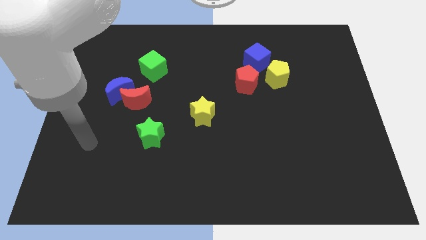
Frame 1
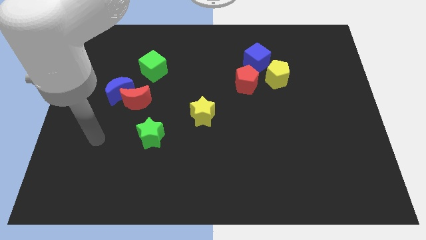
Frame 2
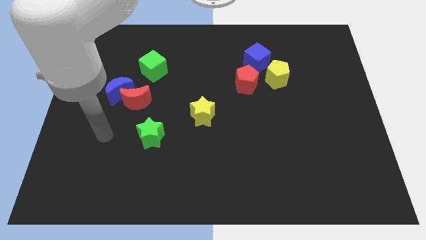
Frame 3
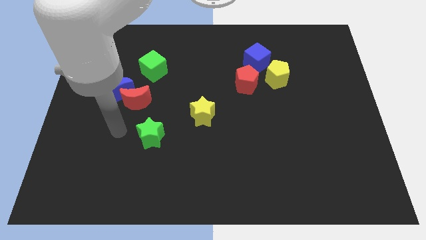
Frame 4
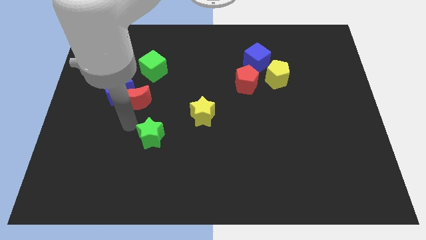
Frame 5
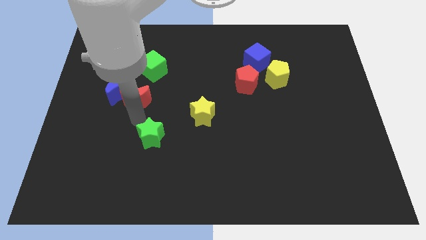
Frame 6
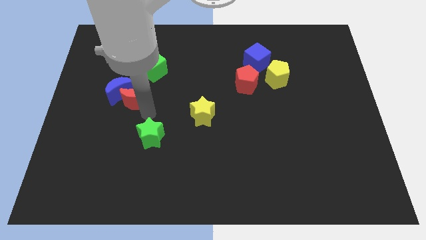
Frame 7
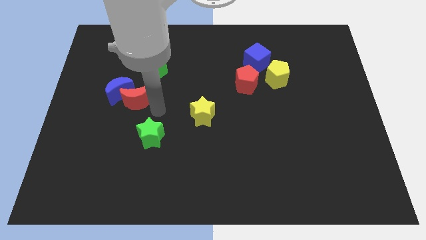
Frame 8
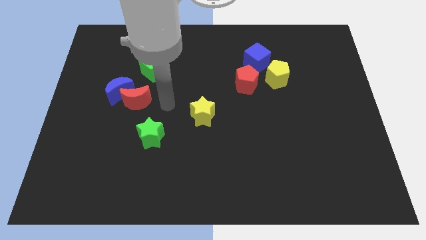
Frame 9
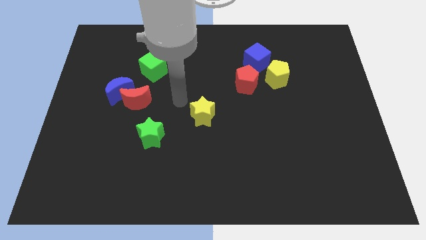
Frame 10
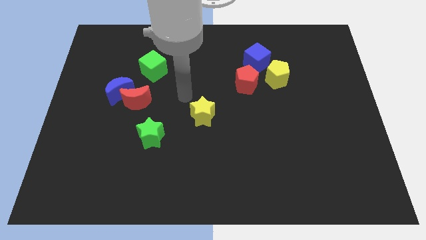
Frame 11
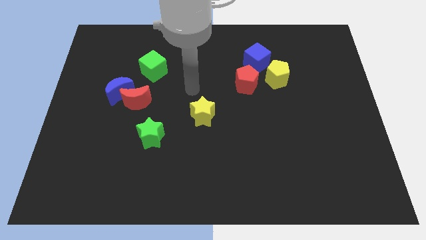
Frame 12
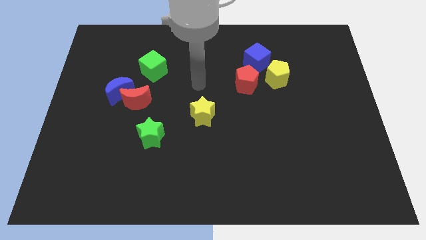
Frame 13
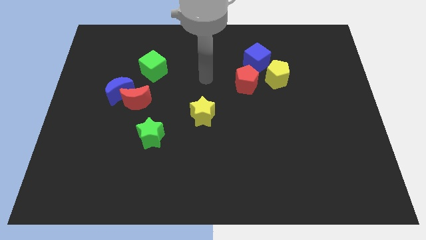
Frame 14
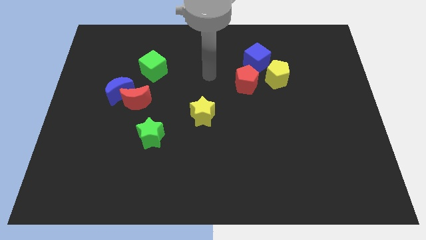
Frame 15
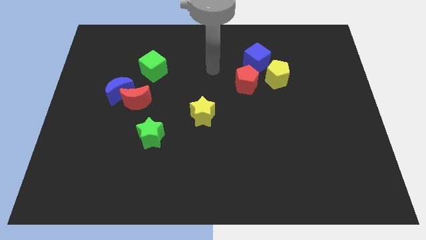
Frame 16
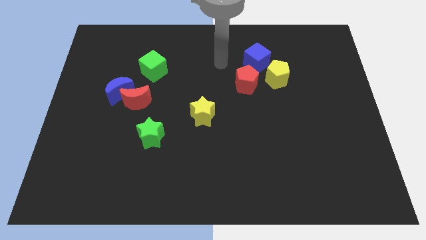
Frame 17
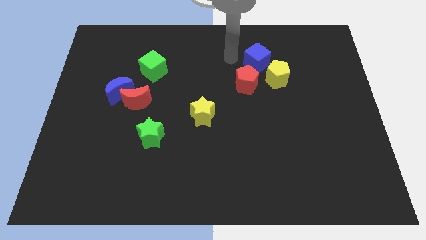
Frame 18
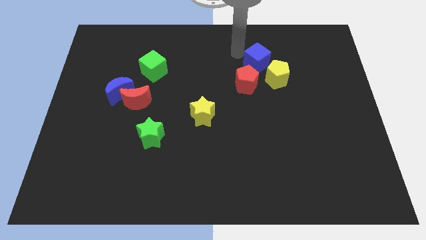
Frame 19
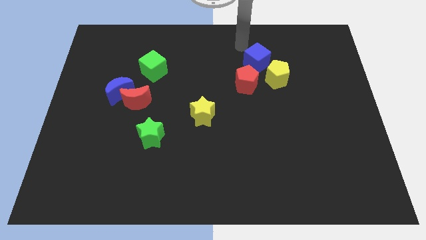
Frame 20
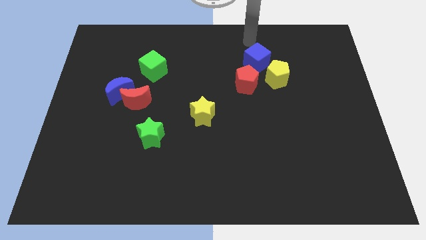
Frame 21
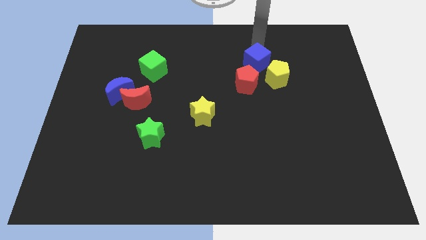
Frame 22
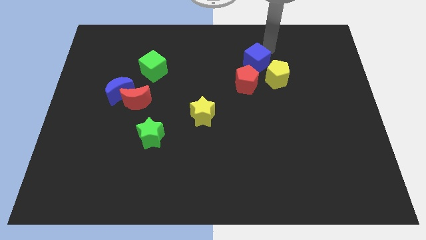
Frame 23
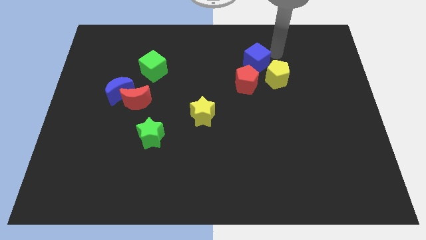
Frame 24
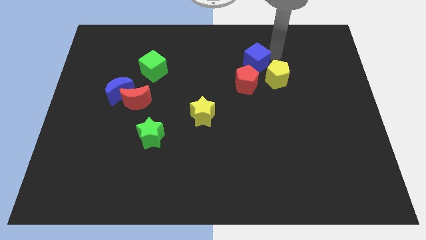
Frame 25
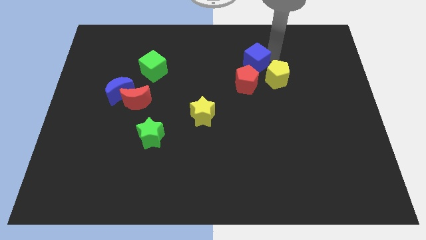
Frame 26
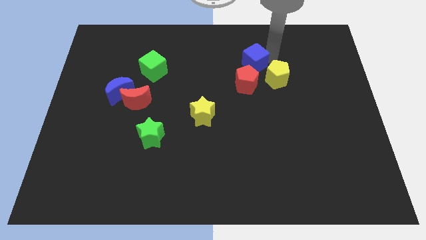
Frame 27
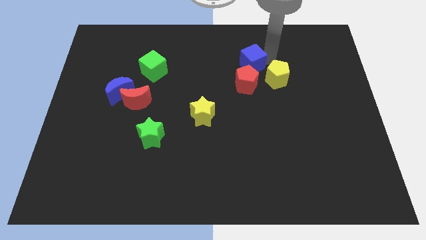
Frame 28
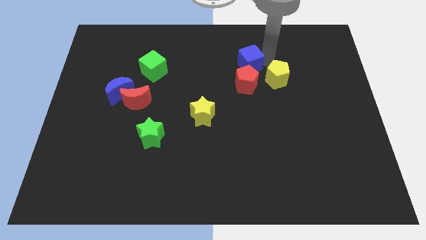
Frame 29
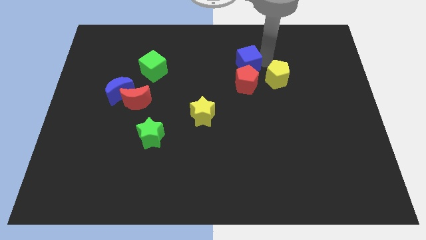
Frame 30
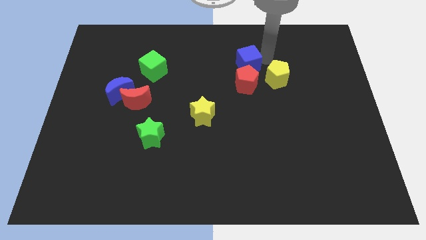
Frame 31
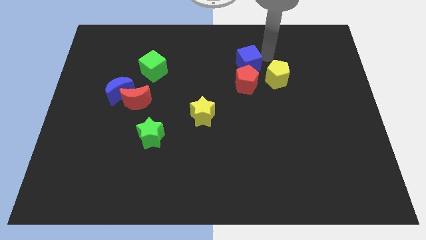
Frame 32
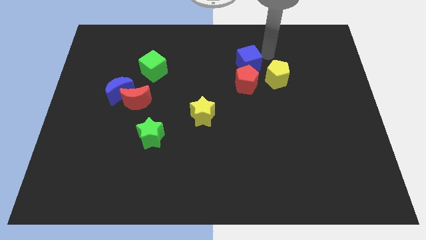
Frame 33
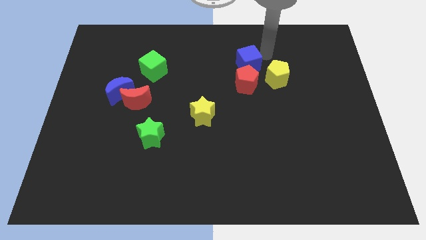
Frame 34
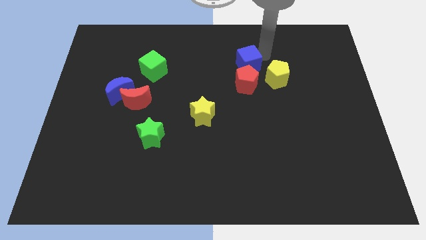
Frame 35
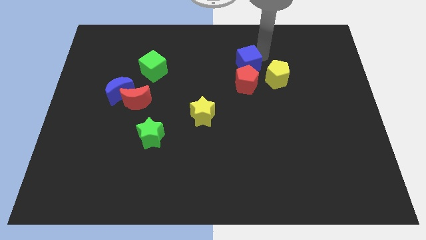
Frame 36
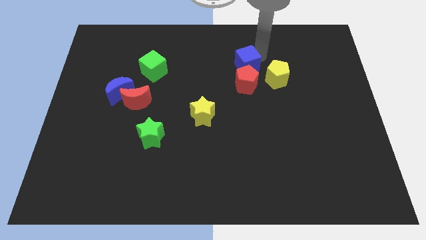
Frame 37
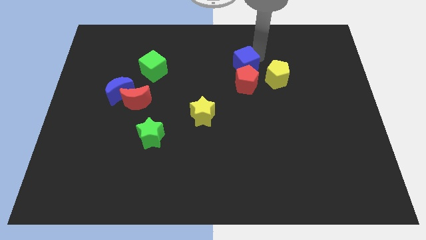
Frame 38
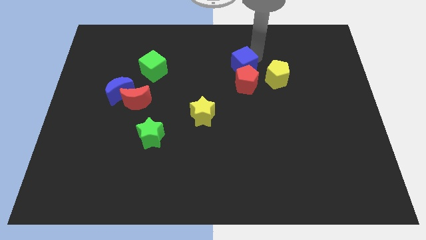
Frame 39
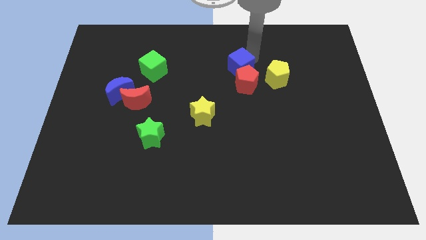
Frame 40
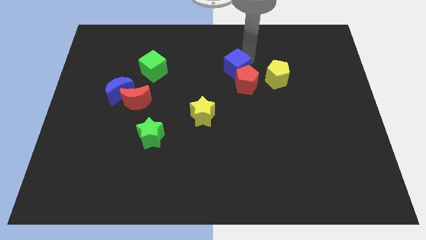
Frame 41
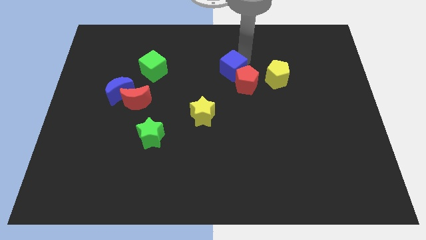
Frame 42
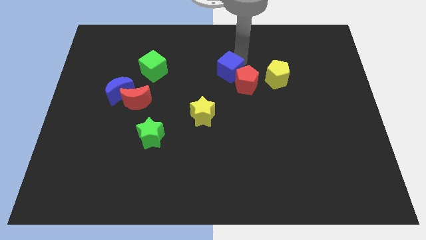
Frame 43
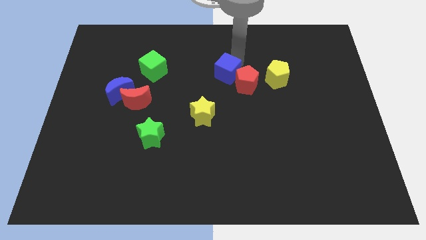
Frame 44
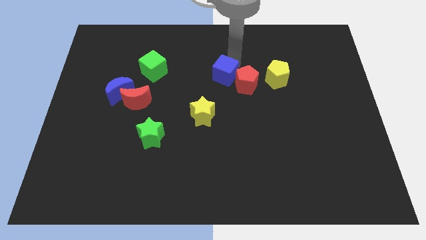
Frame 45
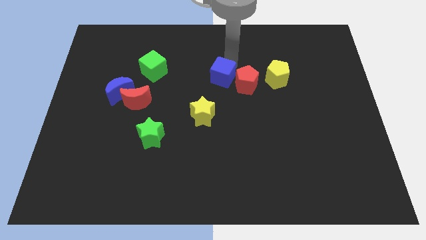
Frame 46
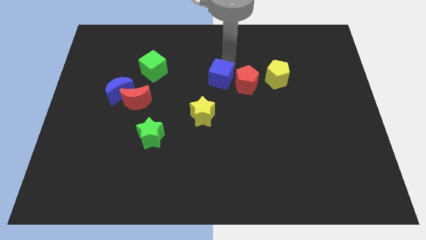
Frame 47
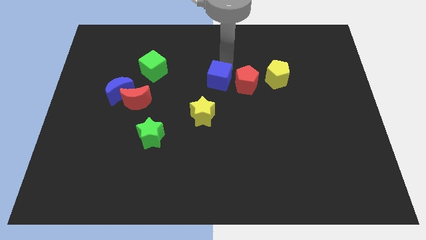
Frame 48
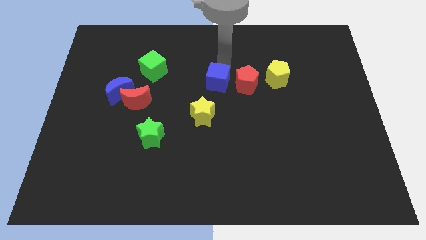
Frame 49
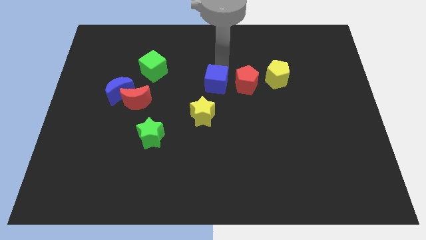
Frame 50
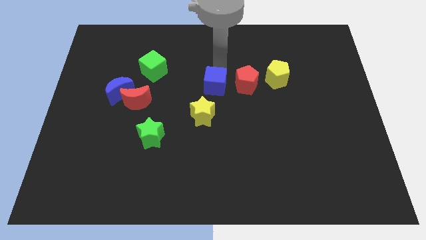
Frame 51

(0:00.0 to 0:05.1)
slide the blue cube to the top right of the yellow star

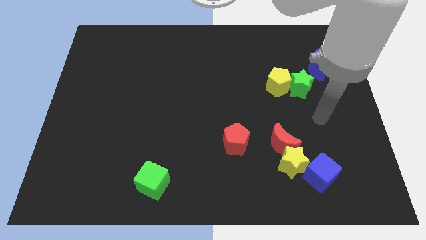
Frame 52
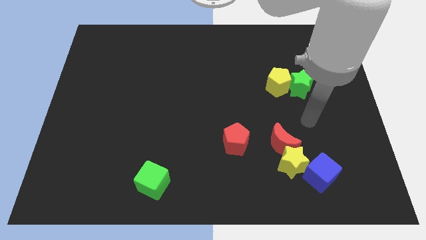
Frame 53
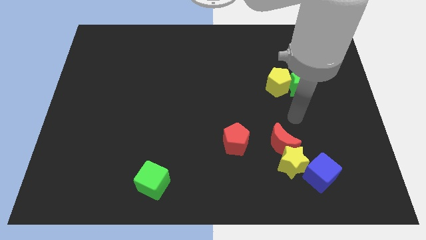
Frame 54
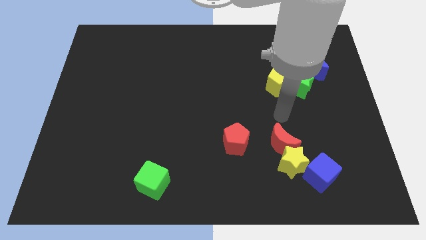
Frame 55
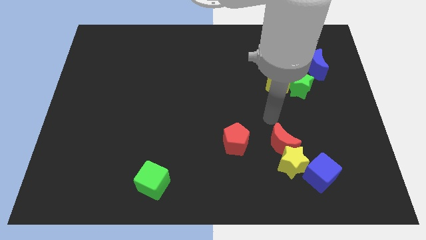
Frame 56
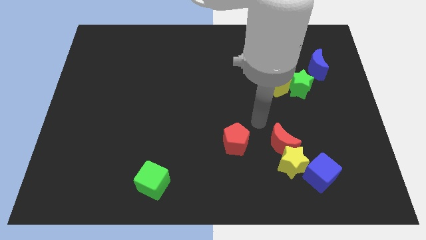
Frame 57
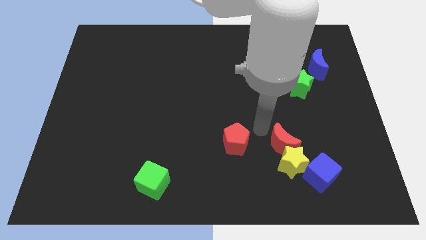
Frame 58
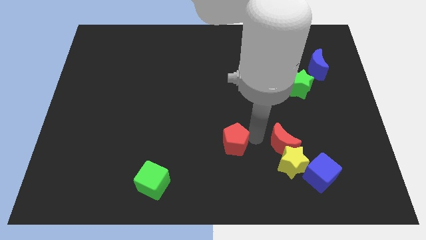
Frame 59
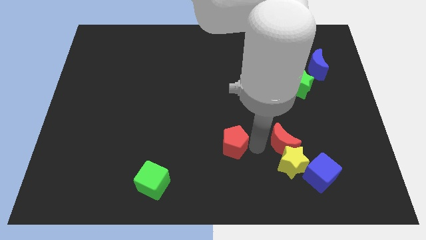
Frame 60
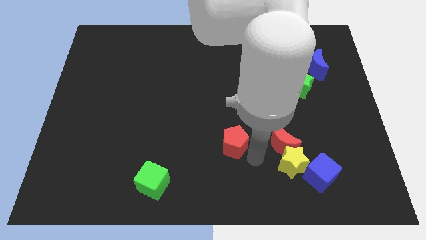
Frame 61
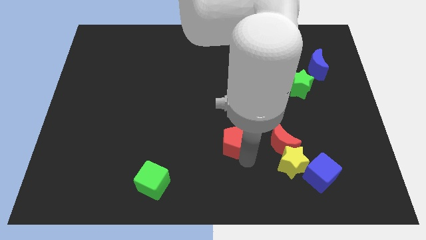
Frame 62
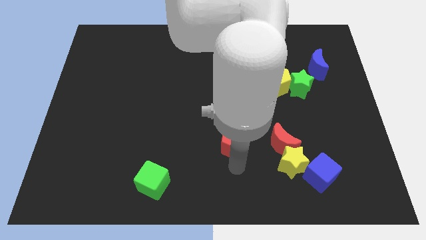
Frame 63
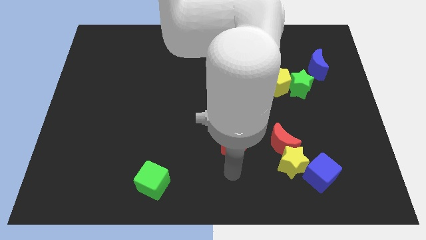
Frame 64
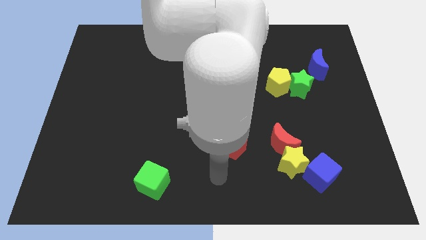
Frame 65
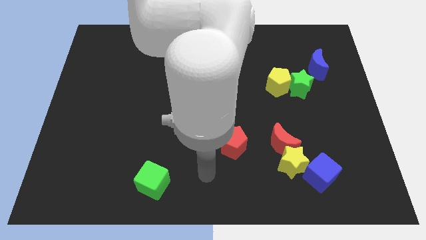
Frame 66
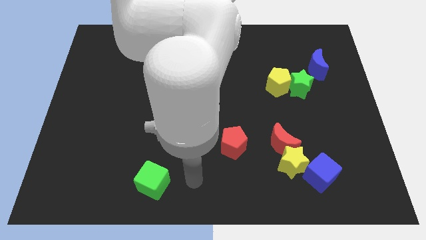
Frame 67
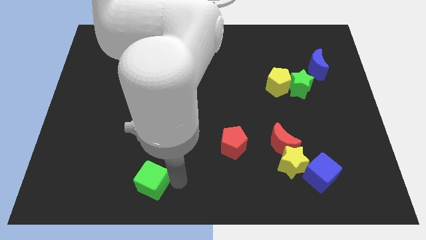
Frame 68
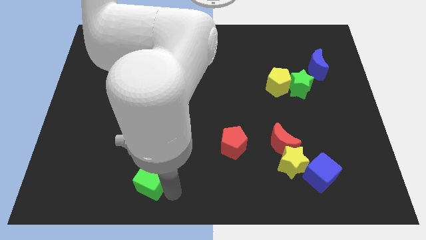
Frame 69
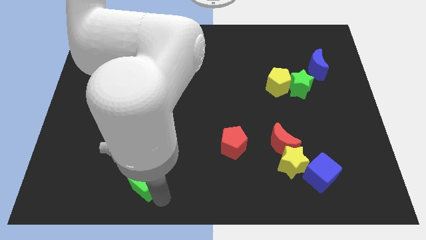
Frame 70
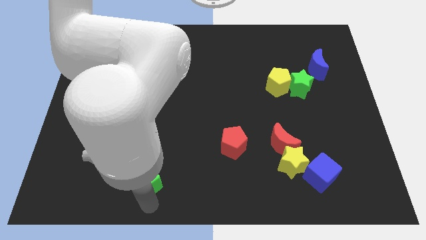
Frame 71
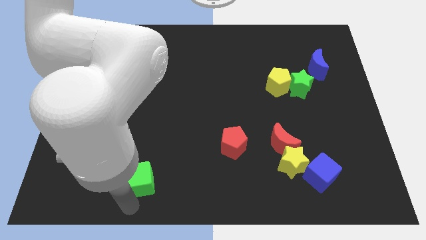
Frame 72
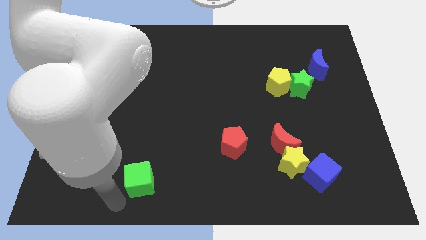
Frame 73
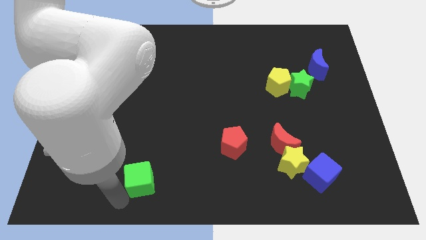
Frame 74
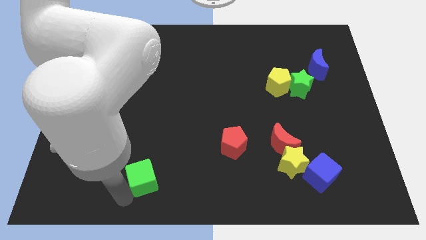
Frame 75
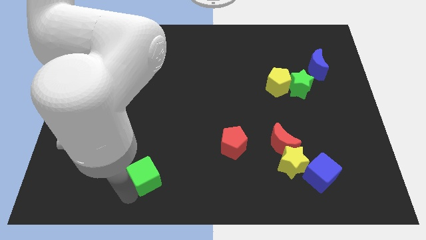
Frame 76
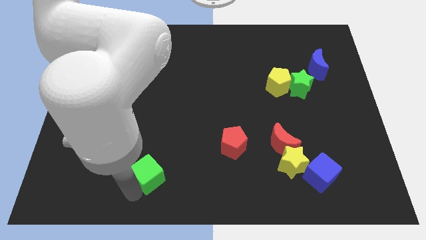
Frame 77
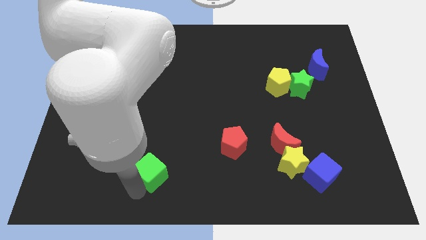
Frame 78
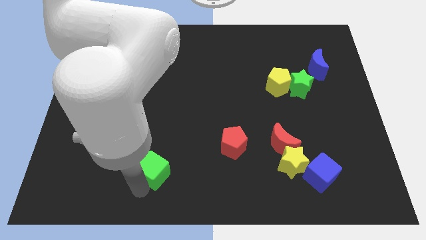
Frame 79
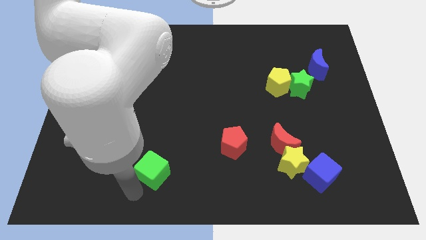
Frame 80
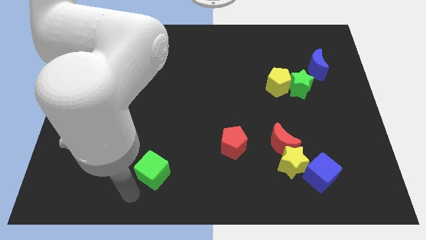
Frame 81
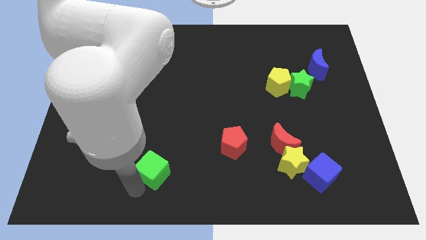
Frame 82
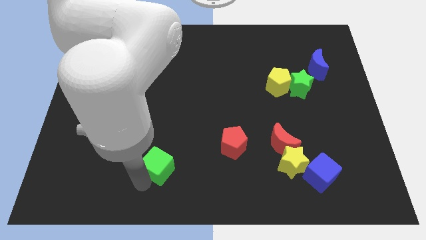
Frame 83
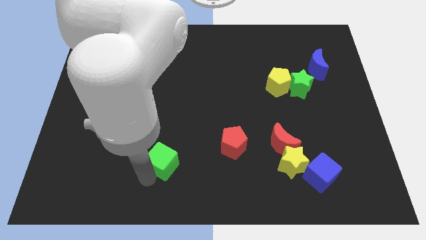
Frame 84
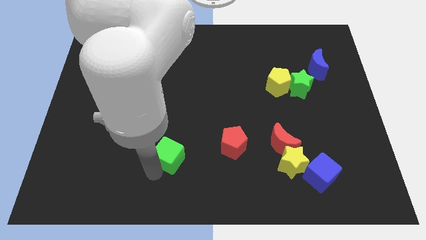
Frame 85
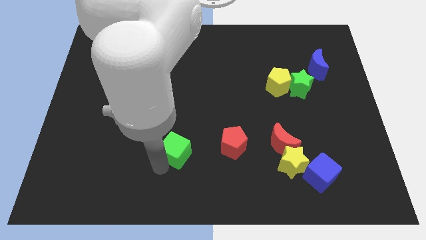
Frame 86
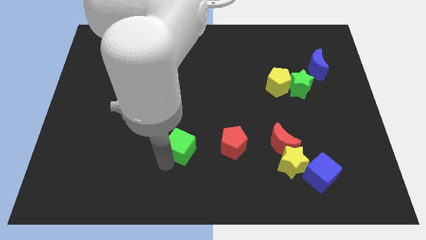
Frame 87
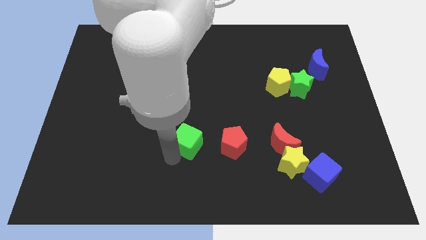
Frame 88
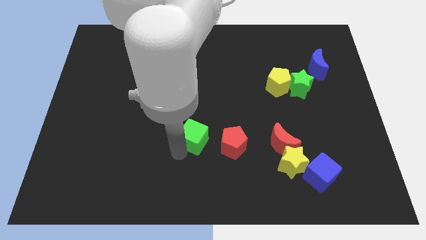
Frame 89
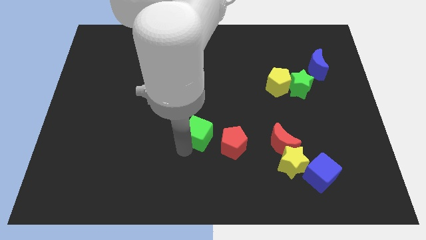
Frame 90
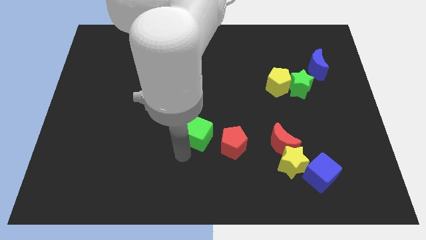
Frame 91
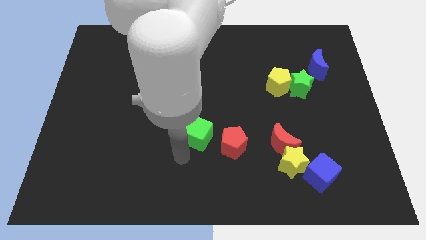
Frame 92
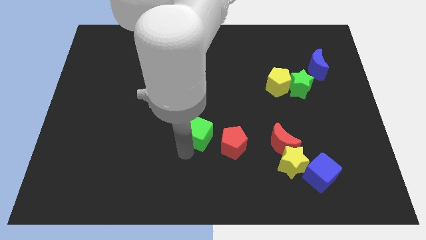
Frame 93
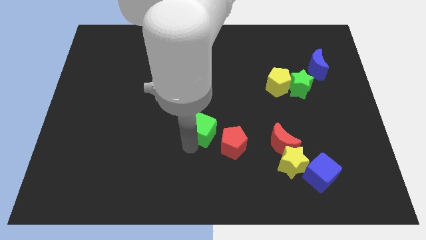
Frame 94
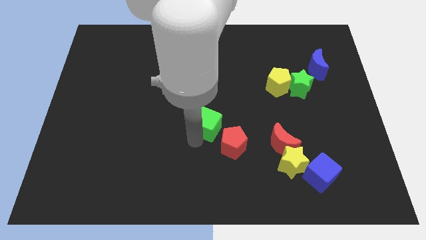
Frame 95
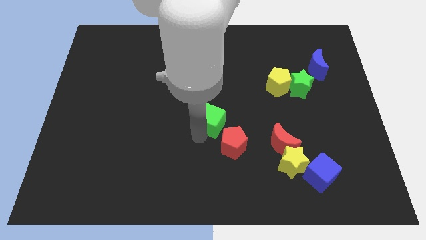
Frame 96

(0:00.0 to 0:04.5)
move the green cube to the top side of the red pentagon
